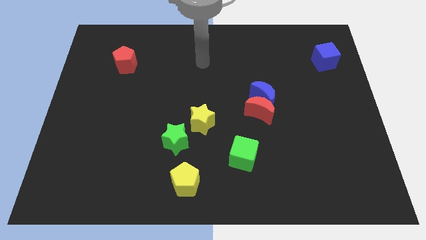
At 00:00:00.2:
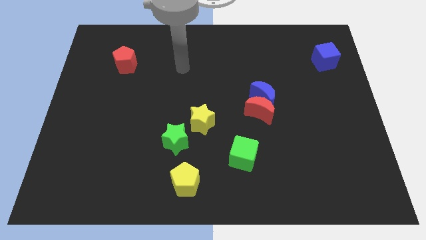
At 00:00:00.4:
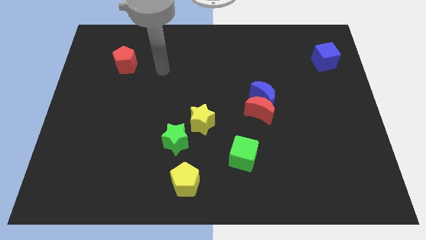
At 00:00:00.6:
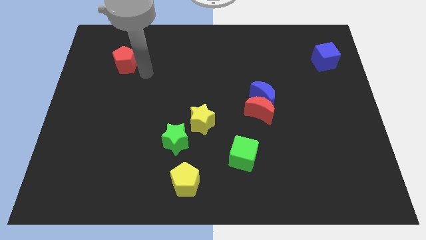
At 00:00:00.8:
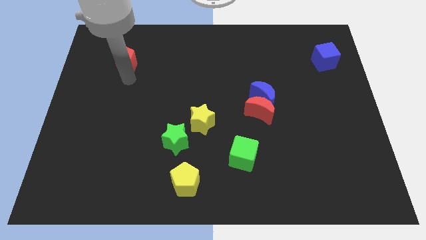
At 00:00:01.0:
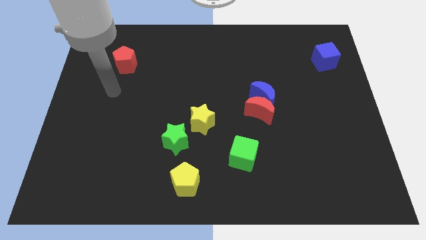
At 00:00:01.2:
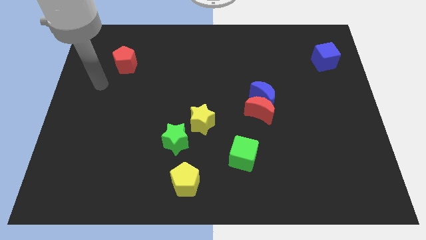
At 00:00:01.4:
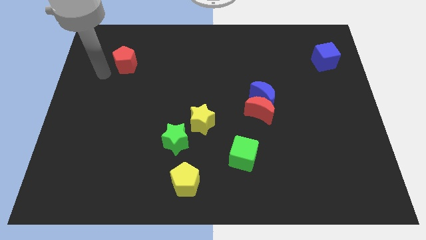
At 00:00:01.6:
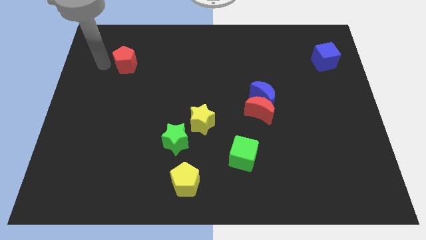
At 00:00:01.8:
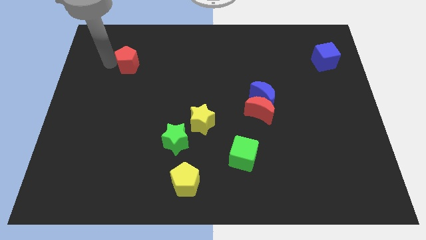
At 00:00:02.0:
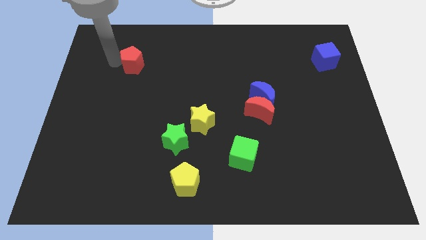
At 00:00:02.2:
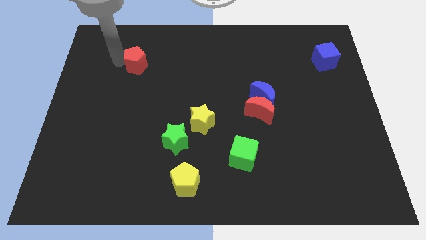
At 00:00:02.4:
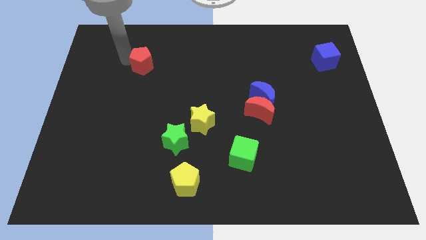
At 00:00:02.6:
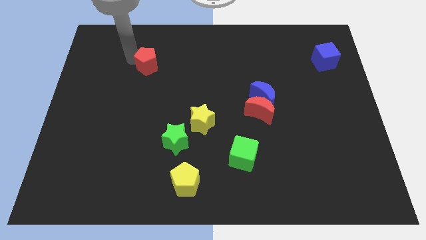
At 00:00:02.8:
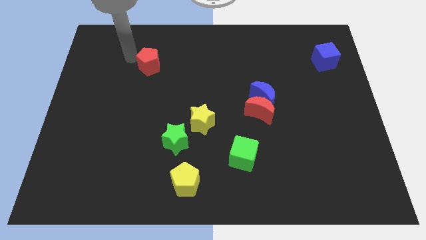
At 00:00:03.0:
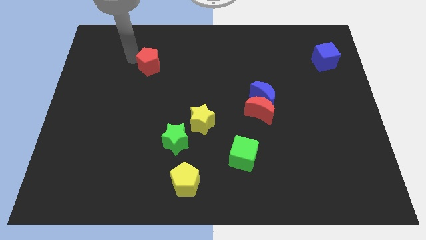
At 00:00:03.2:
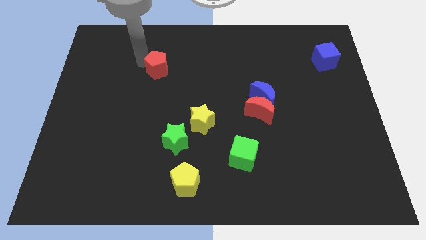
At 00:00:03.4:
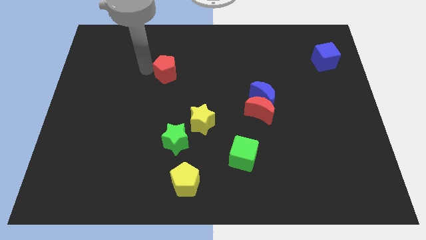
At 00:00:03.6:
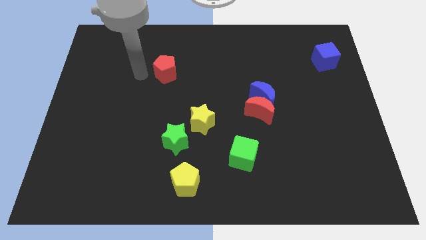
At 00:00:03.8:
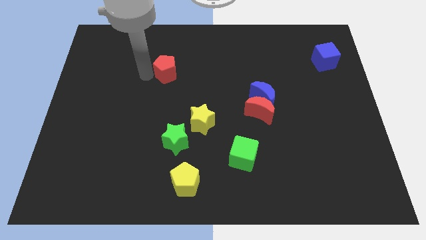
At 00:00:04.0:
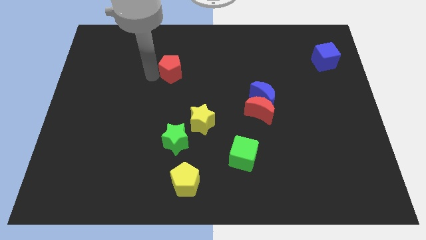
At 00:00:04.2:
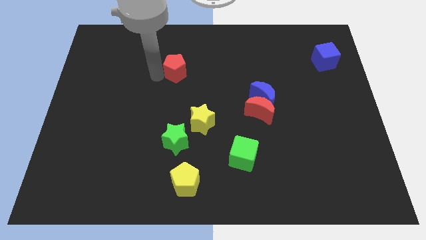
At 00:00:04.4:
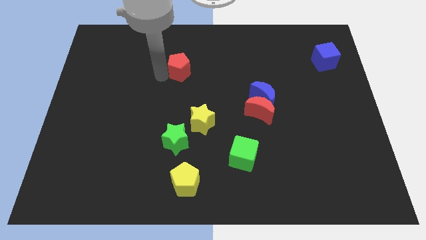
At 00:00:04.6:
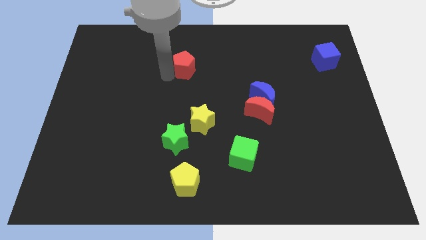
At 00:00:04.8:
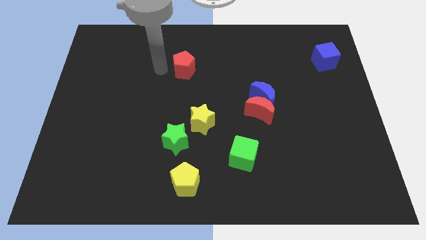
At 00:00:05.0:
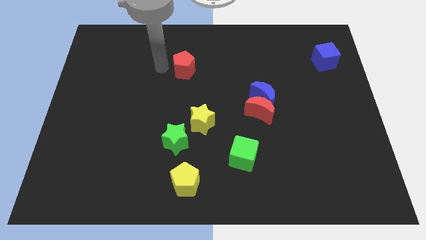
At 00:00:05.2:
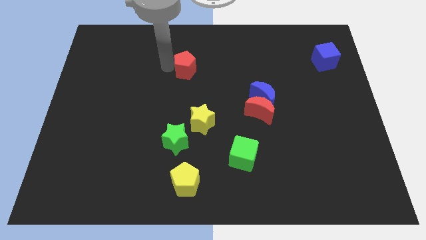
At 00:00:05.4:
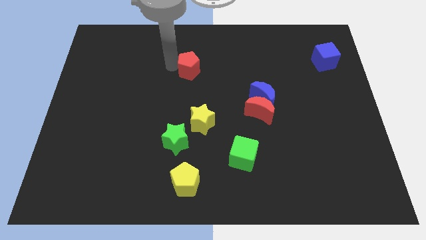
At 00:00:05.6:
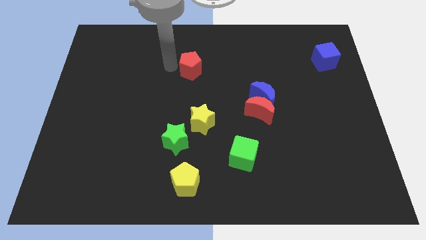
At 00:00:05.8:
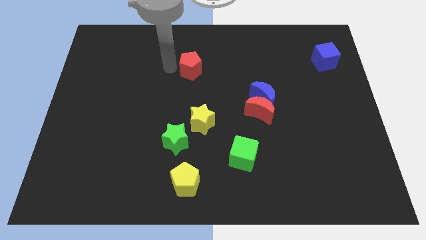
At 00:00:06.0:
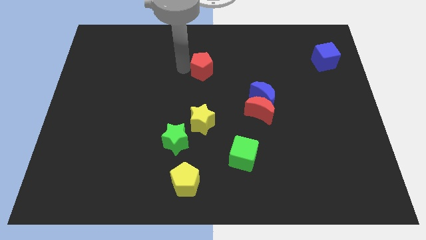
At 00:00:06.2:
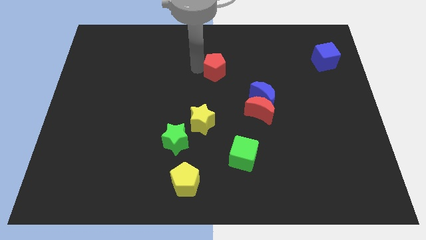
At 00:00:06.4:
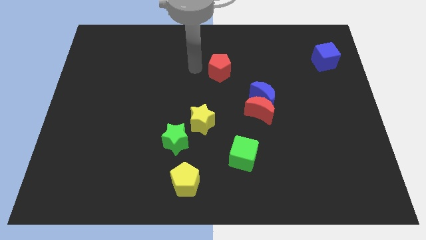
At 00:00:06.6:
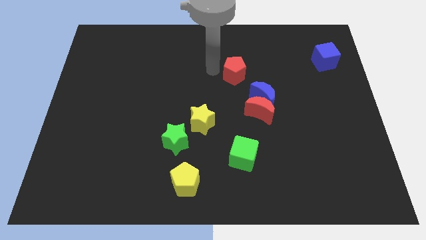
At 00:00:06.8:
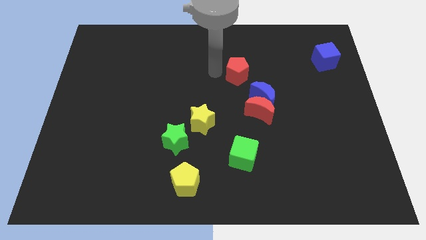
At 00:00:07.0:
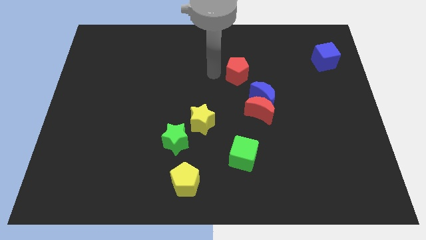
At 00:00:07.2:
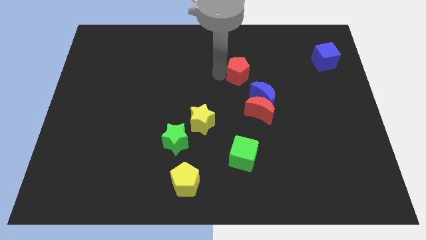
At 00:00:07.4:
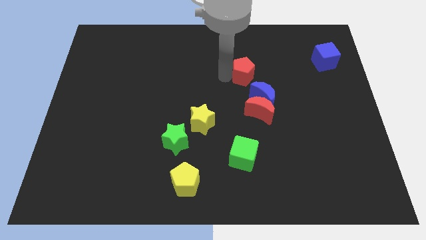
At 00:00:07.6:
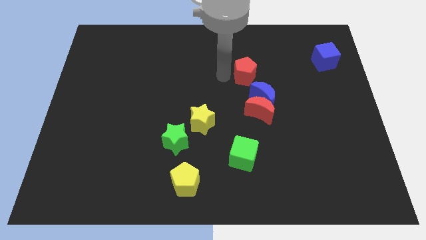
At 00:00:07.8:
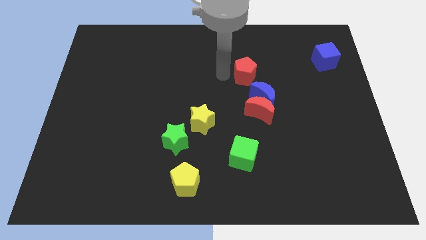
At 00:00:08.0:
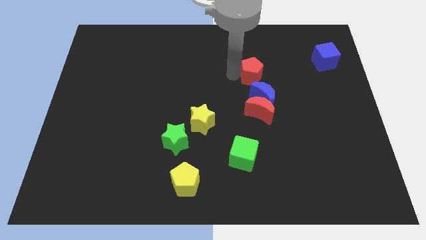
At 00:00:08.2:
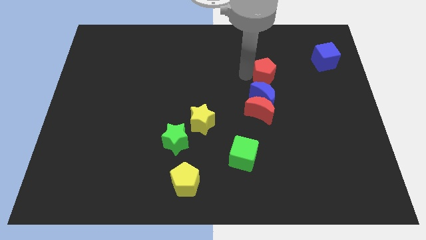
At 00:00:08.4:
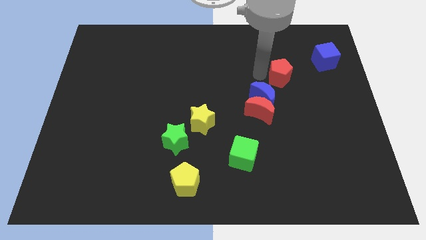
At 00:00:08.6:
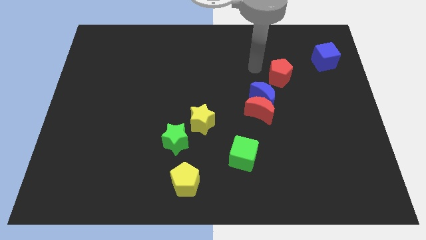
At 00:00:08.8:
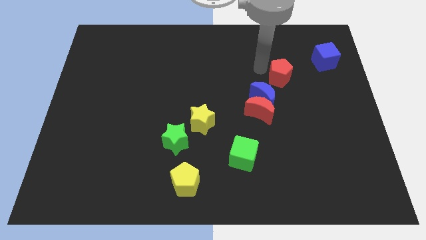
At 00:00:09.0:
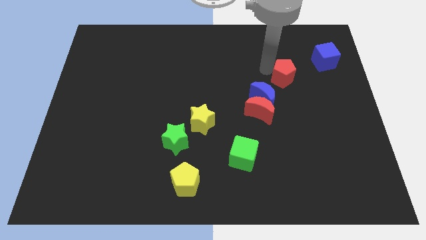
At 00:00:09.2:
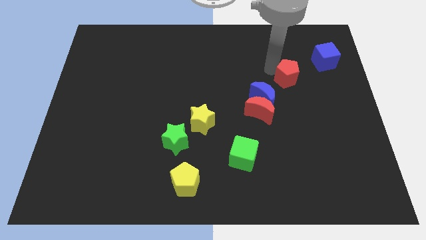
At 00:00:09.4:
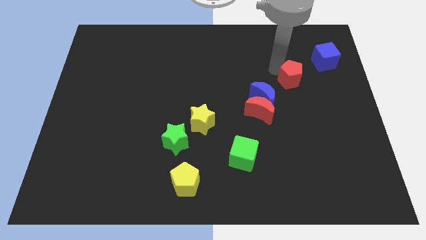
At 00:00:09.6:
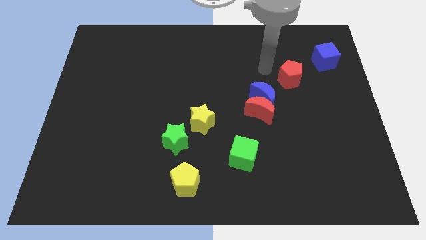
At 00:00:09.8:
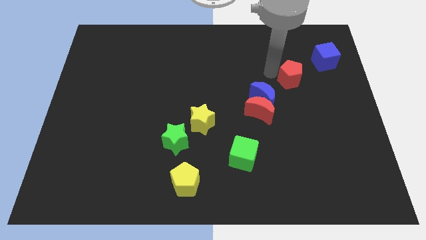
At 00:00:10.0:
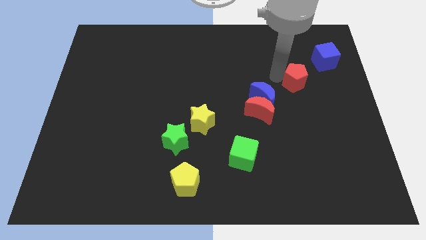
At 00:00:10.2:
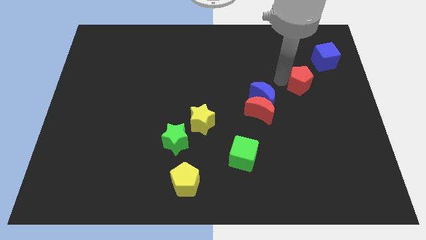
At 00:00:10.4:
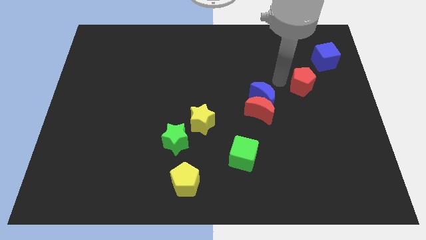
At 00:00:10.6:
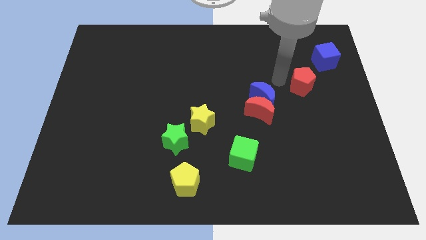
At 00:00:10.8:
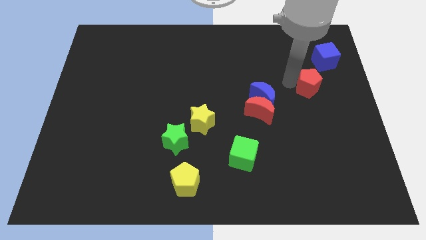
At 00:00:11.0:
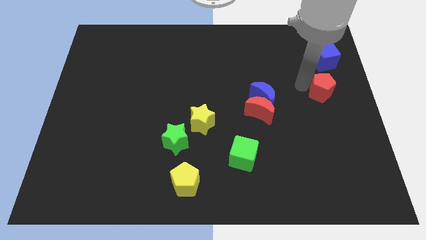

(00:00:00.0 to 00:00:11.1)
slide the red pentagon to the center right

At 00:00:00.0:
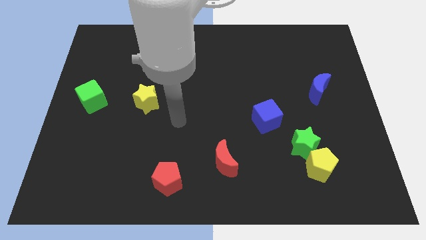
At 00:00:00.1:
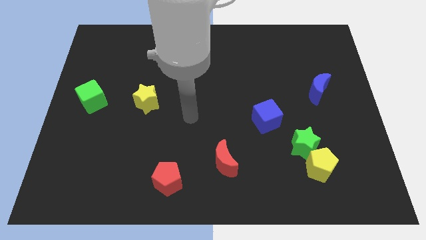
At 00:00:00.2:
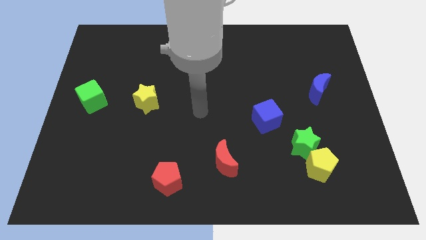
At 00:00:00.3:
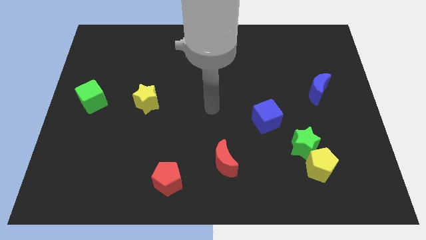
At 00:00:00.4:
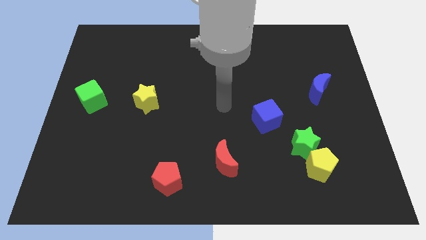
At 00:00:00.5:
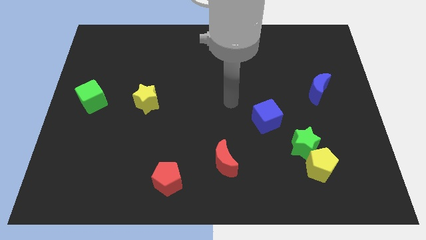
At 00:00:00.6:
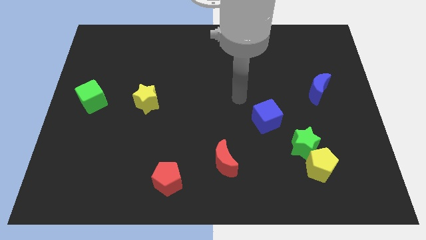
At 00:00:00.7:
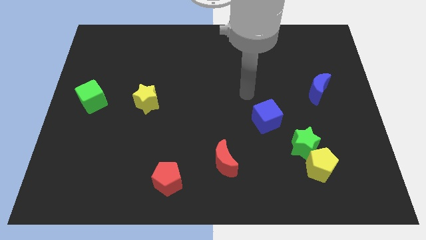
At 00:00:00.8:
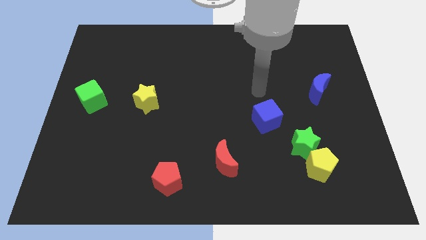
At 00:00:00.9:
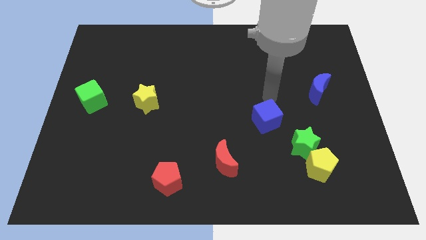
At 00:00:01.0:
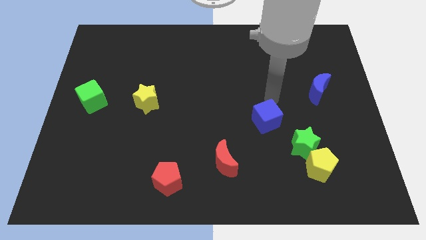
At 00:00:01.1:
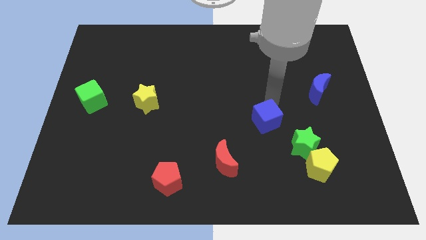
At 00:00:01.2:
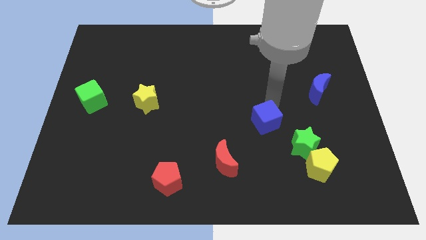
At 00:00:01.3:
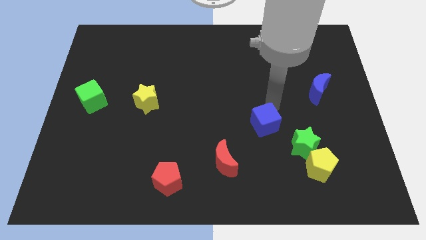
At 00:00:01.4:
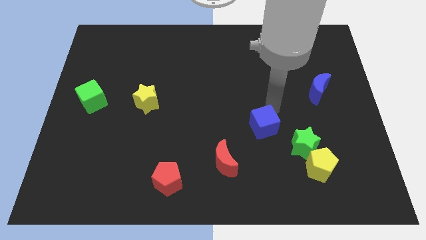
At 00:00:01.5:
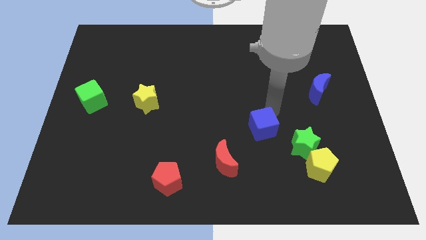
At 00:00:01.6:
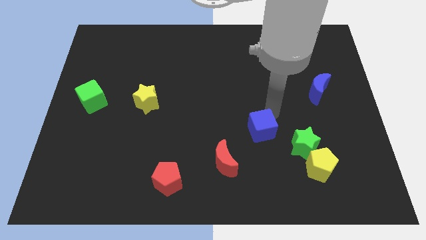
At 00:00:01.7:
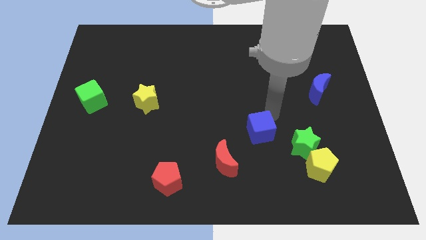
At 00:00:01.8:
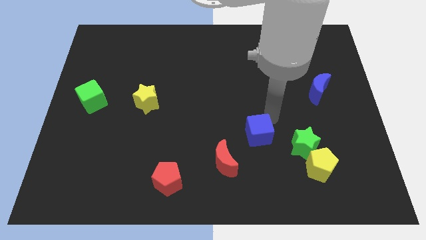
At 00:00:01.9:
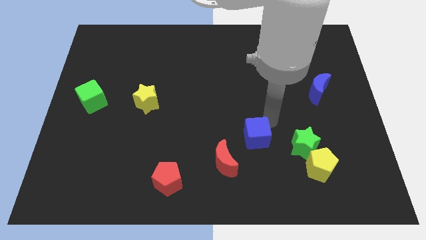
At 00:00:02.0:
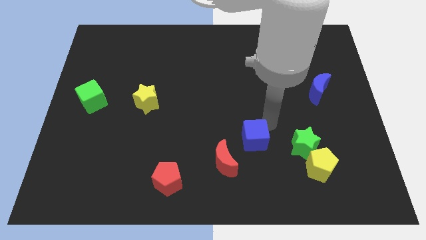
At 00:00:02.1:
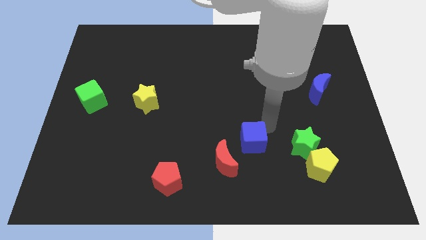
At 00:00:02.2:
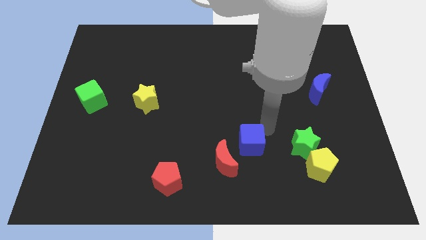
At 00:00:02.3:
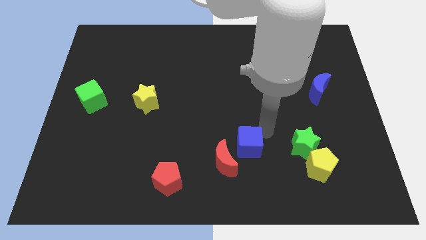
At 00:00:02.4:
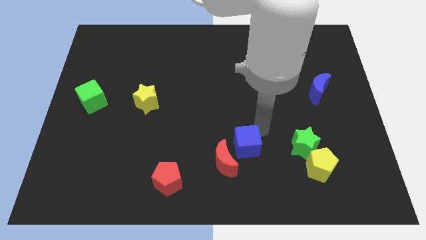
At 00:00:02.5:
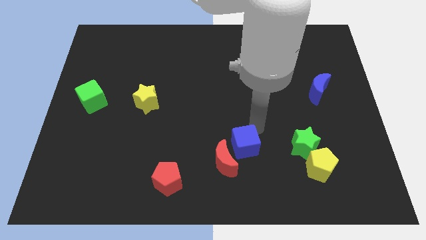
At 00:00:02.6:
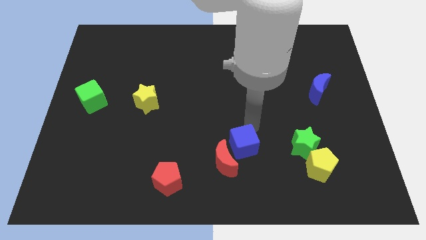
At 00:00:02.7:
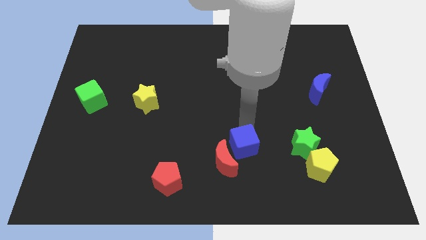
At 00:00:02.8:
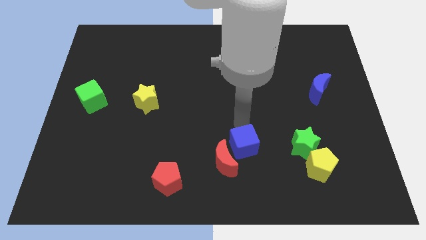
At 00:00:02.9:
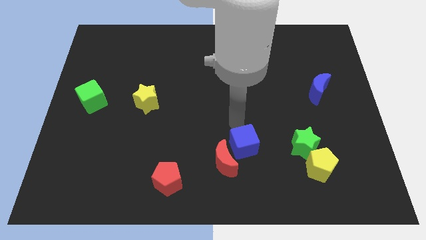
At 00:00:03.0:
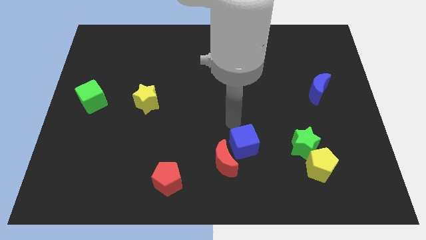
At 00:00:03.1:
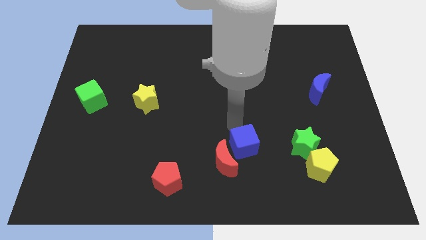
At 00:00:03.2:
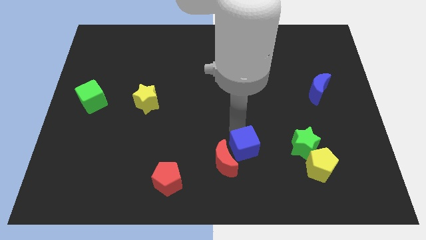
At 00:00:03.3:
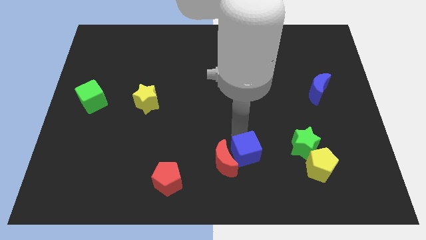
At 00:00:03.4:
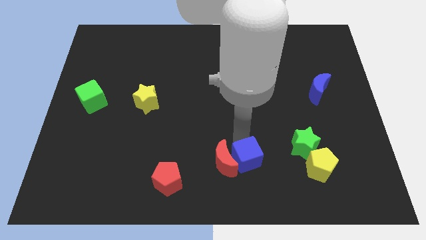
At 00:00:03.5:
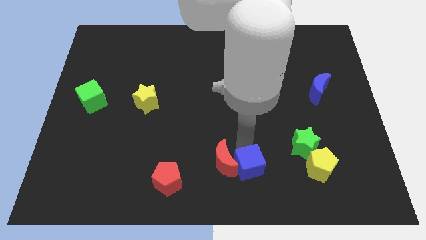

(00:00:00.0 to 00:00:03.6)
slide the blue cube to the bottom side
